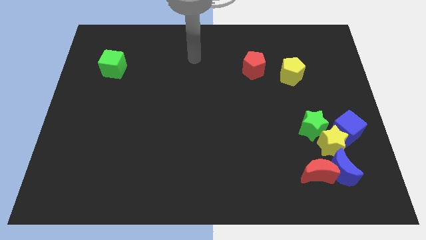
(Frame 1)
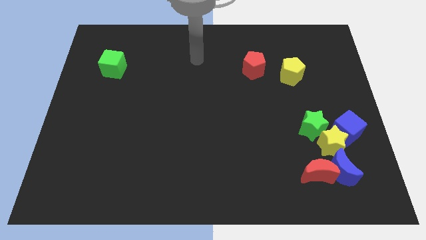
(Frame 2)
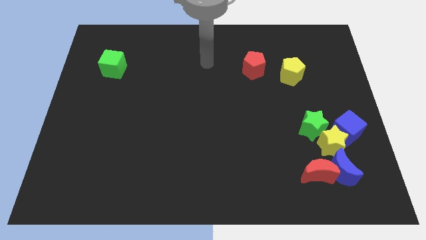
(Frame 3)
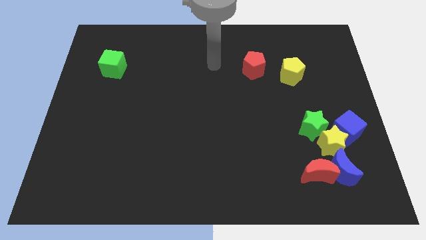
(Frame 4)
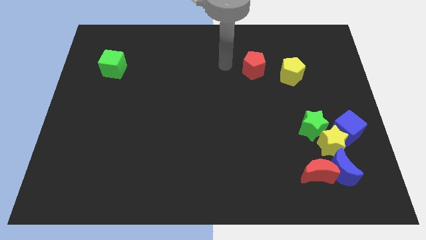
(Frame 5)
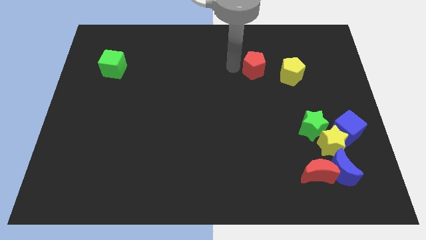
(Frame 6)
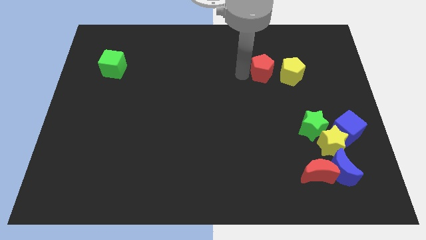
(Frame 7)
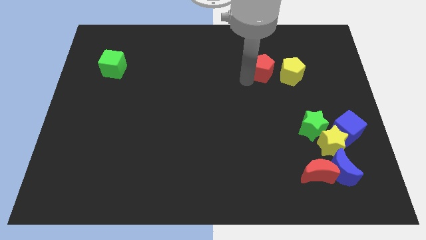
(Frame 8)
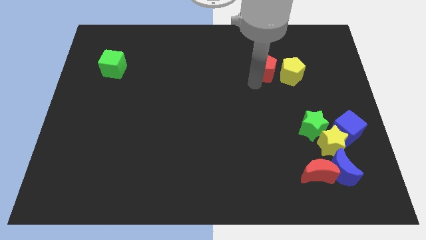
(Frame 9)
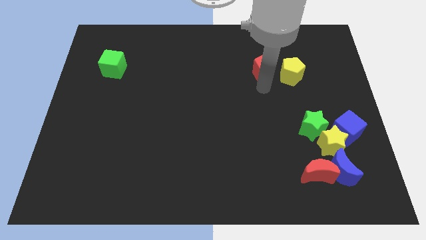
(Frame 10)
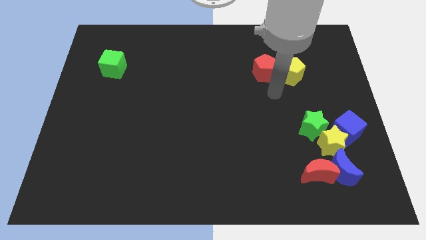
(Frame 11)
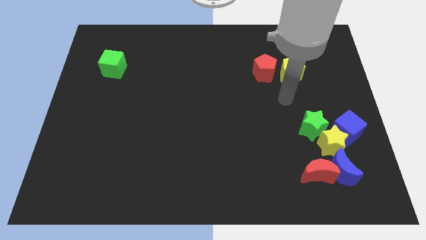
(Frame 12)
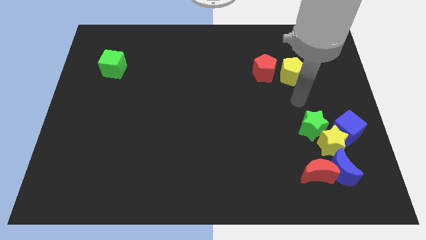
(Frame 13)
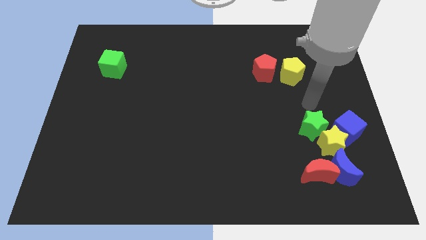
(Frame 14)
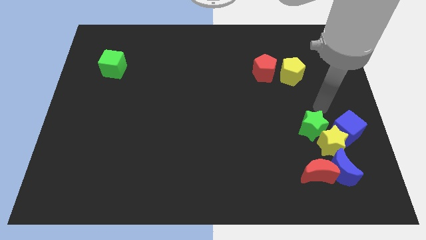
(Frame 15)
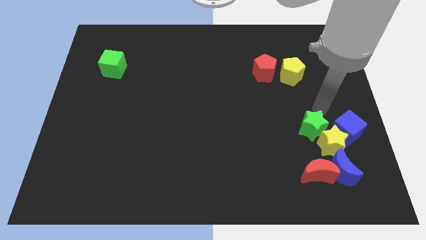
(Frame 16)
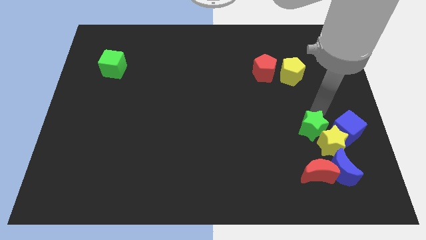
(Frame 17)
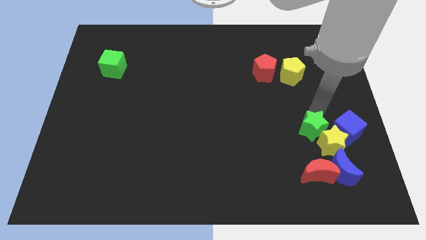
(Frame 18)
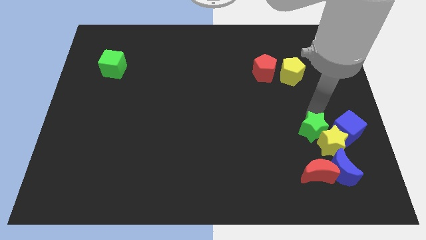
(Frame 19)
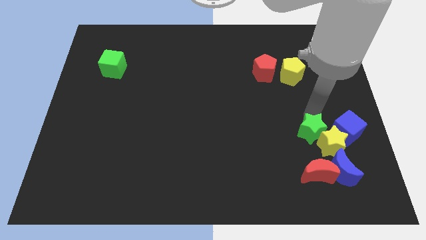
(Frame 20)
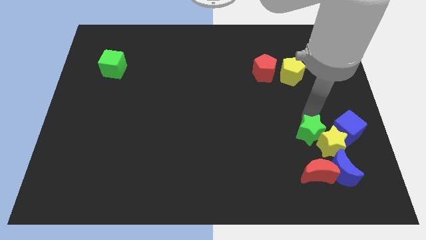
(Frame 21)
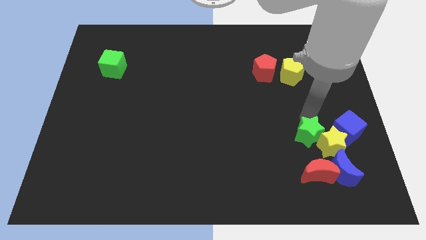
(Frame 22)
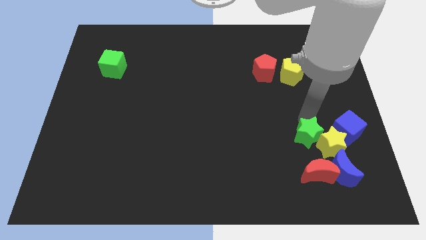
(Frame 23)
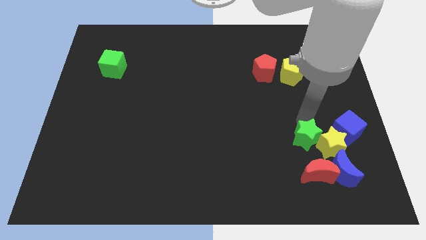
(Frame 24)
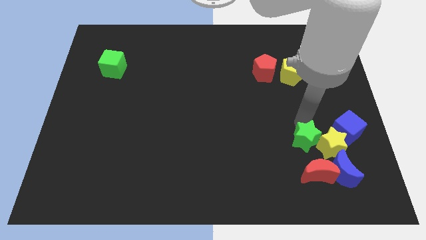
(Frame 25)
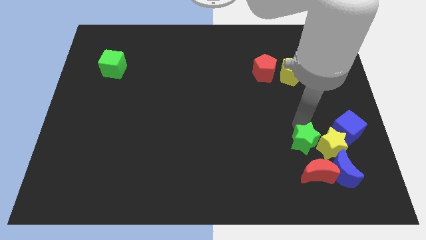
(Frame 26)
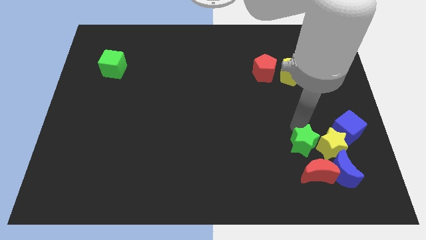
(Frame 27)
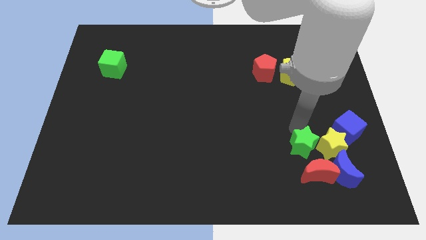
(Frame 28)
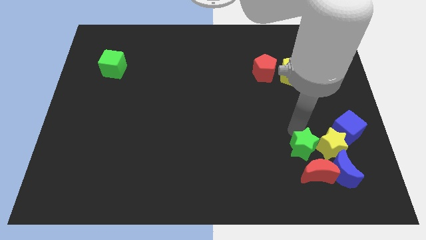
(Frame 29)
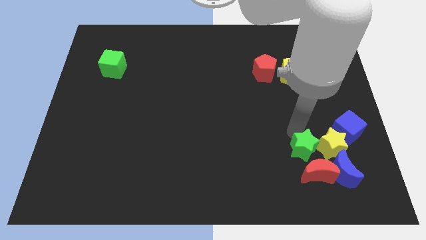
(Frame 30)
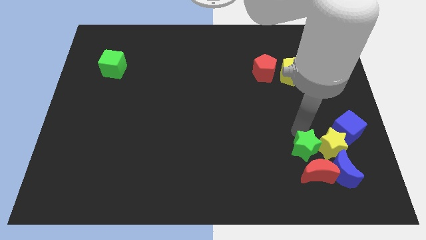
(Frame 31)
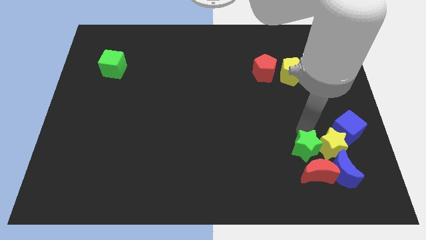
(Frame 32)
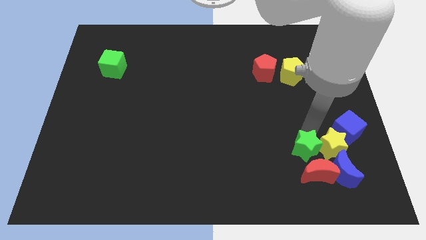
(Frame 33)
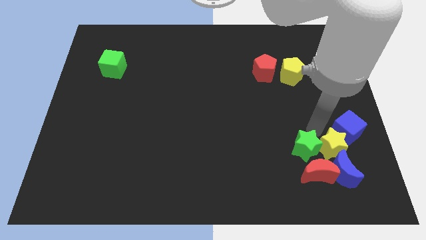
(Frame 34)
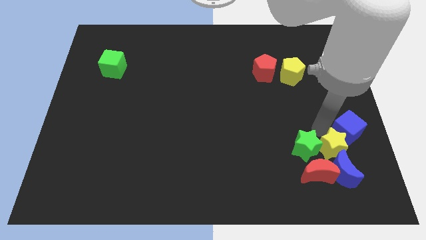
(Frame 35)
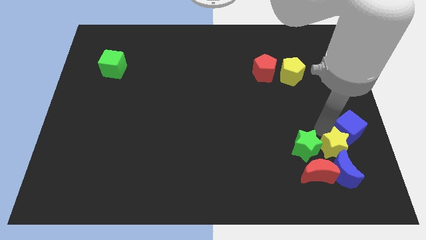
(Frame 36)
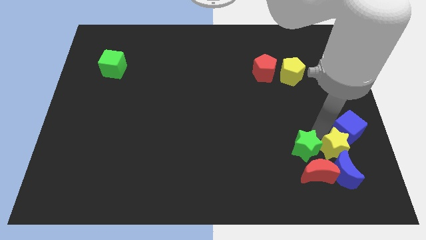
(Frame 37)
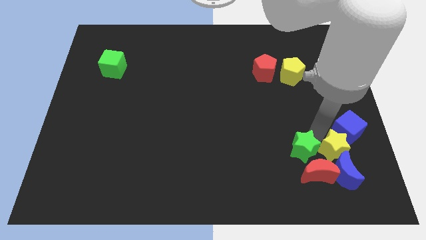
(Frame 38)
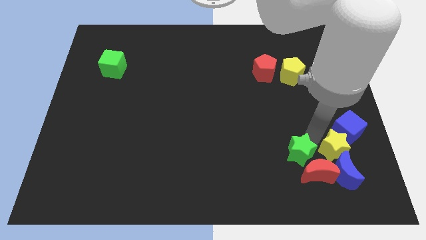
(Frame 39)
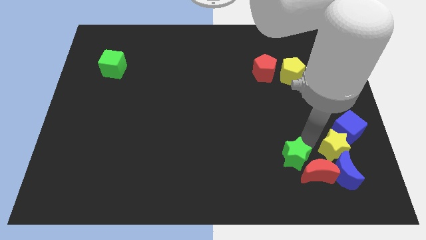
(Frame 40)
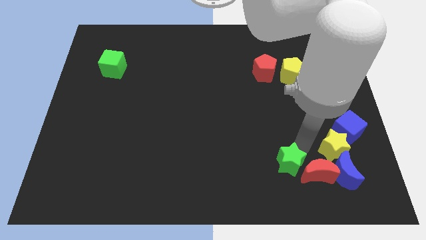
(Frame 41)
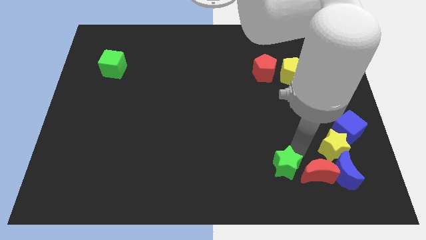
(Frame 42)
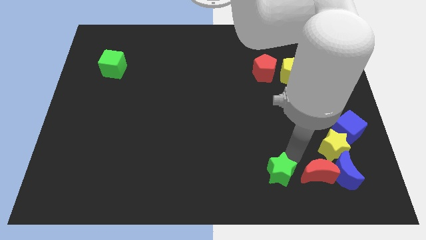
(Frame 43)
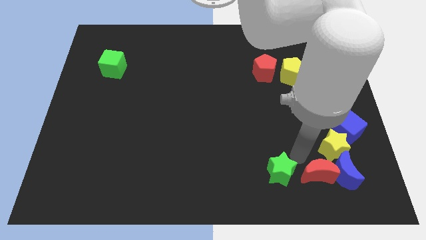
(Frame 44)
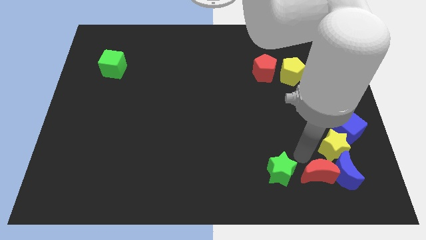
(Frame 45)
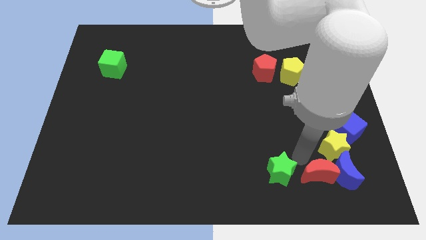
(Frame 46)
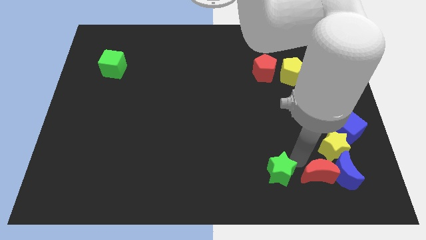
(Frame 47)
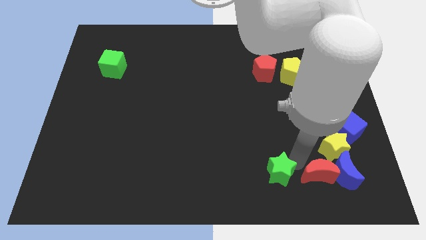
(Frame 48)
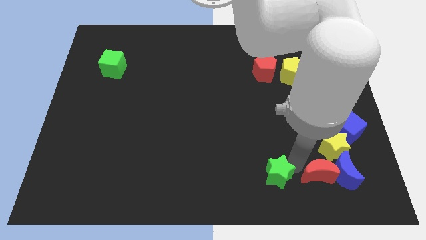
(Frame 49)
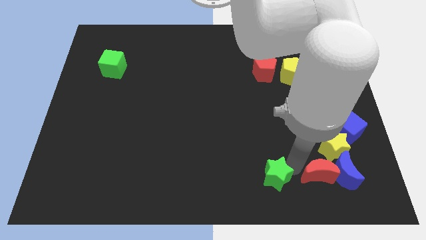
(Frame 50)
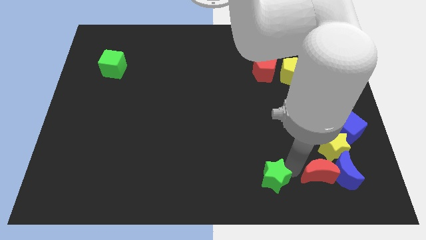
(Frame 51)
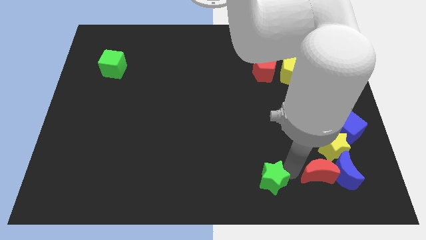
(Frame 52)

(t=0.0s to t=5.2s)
move the green star to the bottom side

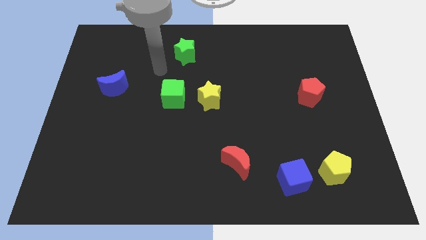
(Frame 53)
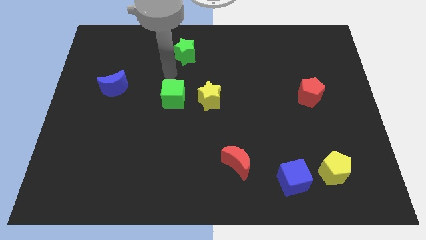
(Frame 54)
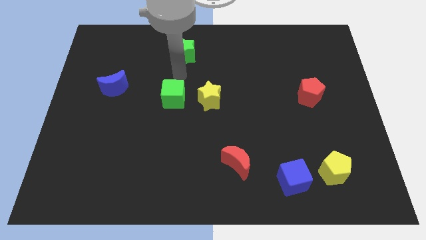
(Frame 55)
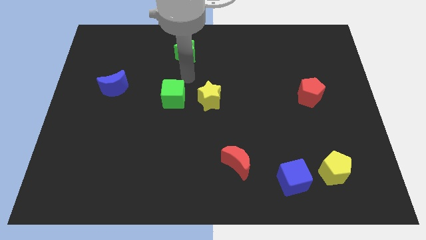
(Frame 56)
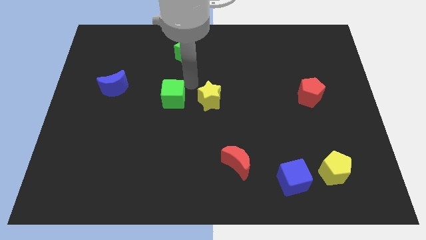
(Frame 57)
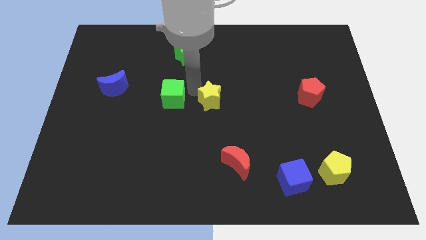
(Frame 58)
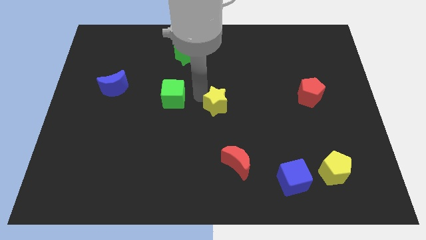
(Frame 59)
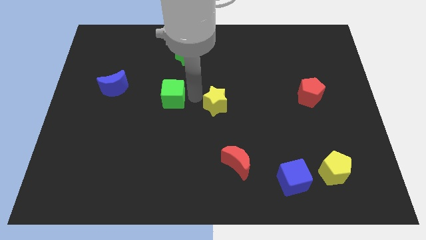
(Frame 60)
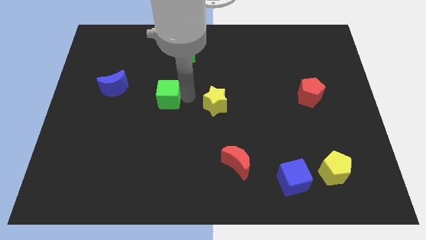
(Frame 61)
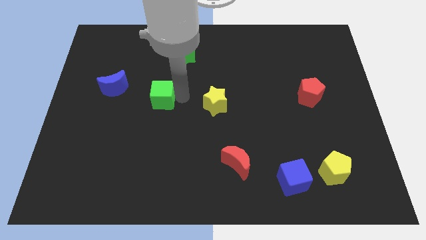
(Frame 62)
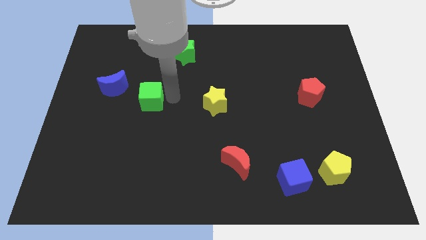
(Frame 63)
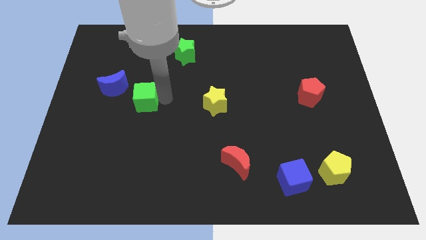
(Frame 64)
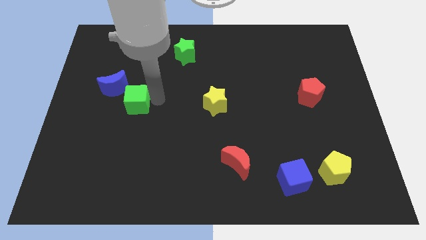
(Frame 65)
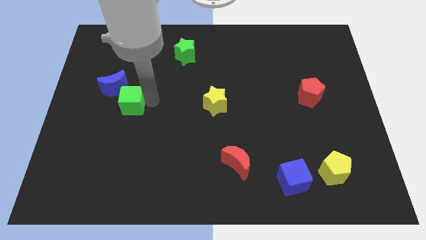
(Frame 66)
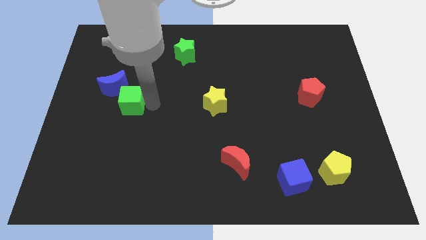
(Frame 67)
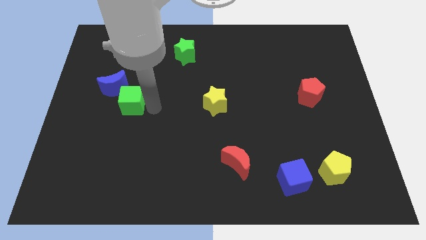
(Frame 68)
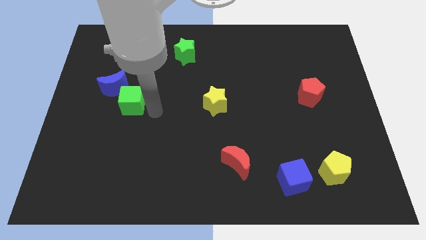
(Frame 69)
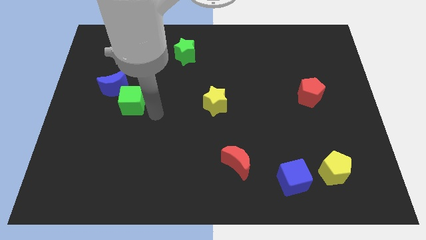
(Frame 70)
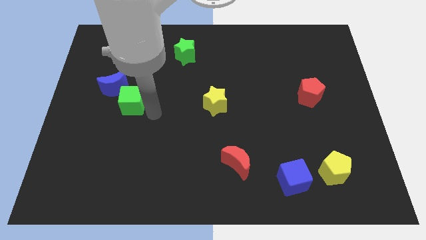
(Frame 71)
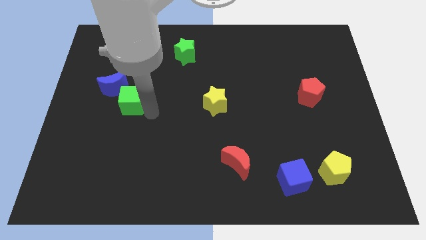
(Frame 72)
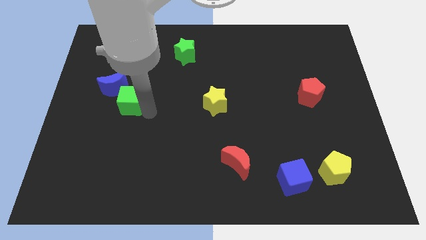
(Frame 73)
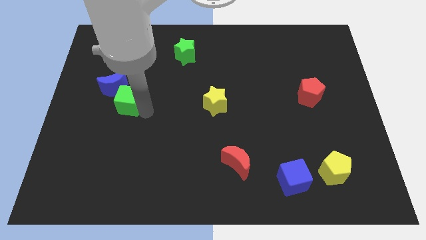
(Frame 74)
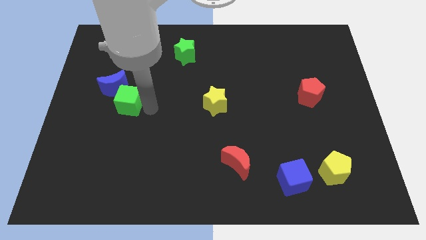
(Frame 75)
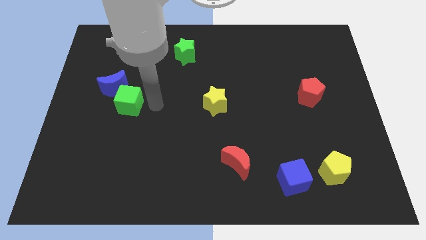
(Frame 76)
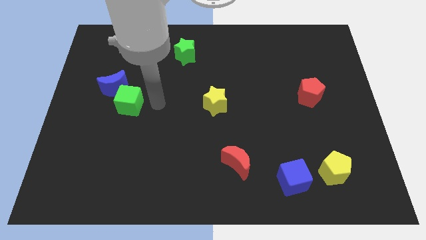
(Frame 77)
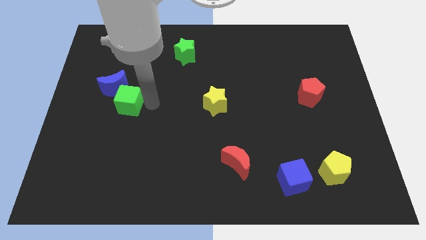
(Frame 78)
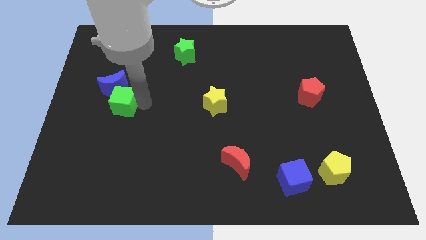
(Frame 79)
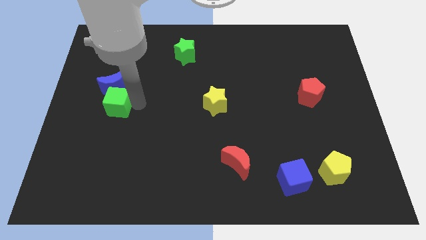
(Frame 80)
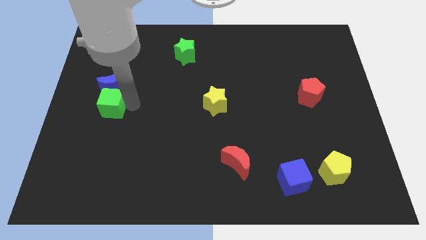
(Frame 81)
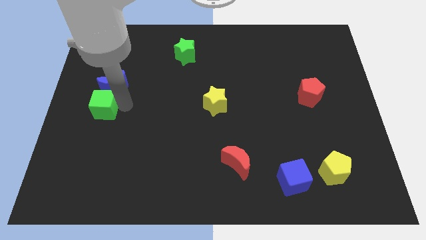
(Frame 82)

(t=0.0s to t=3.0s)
slide the green cube to the left side of the board
